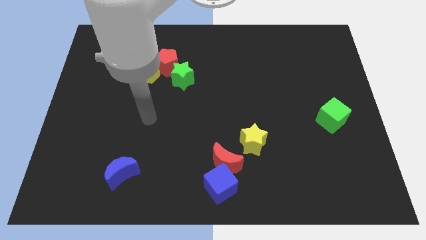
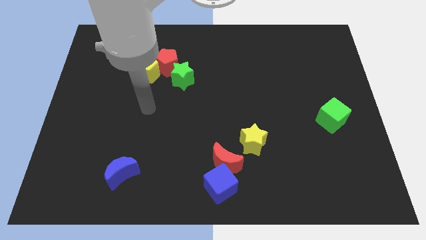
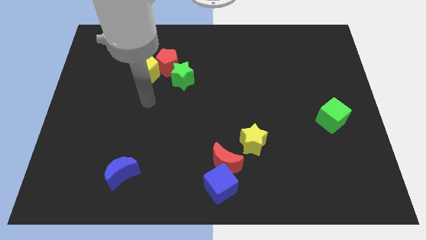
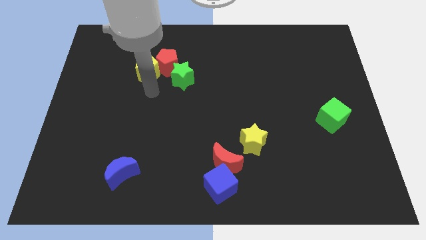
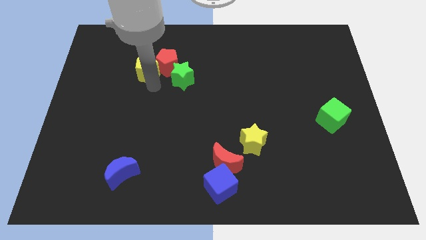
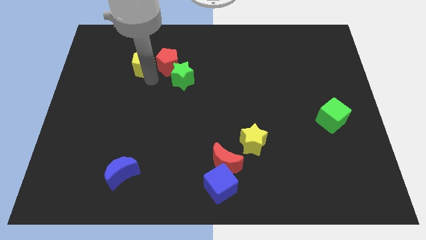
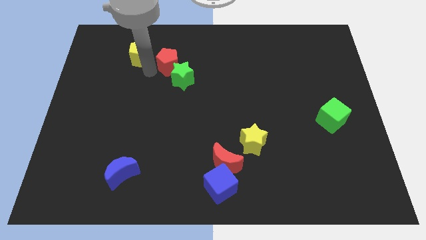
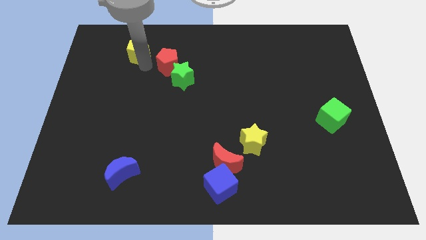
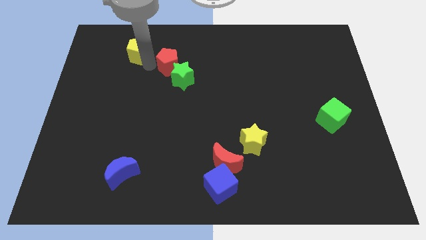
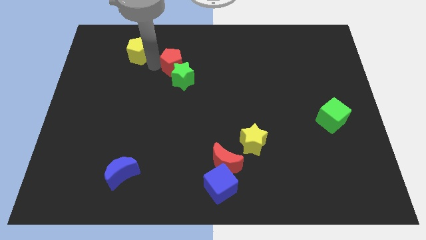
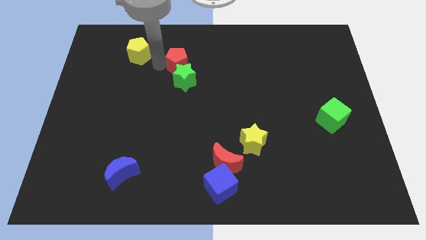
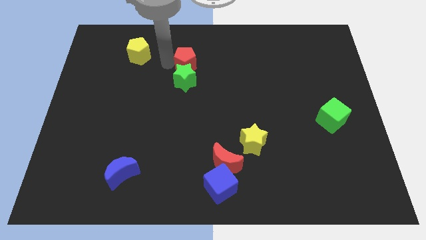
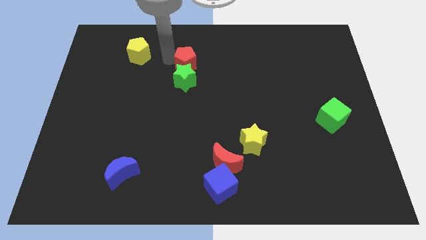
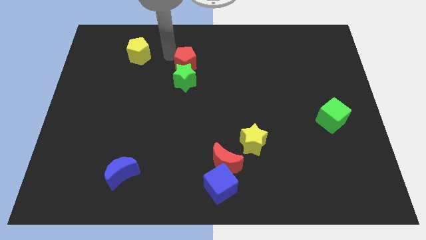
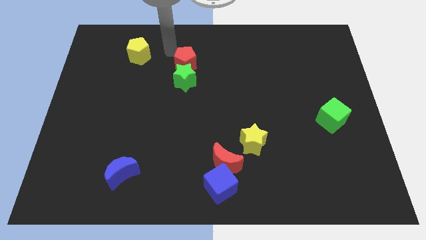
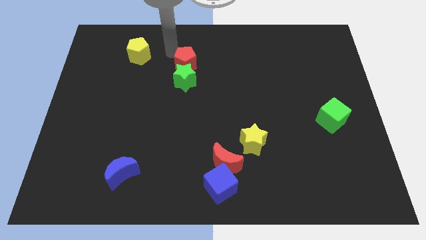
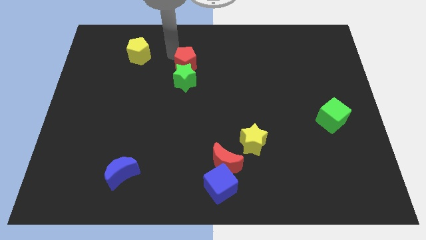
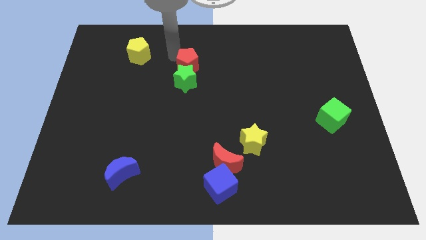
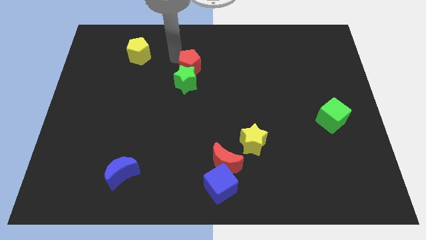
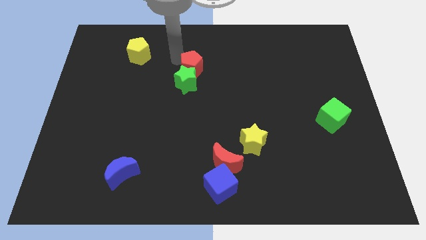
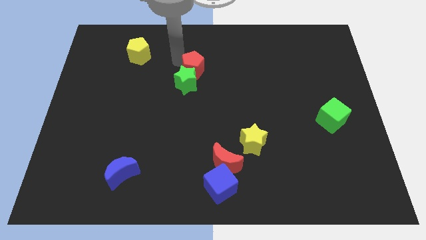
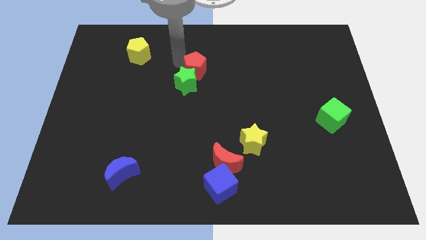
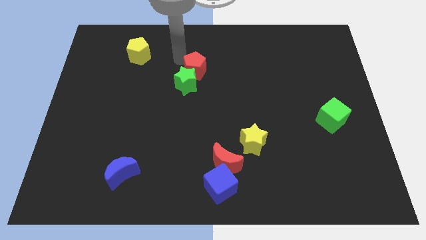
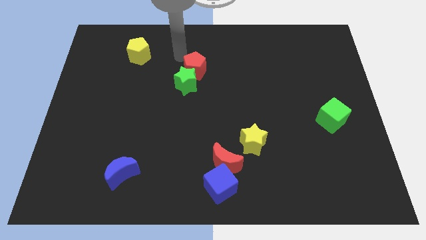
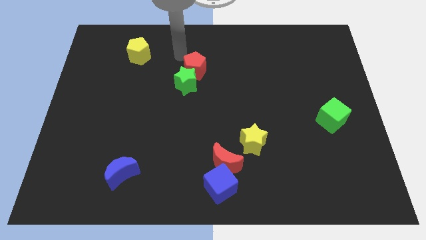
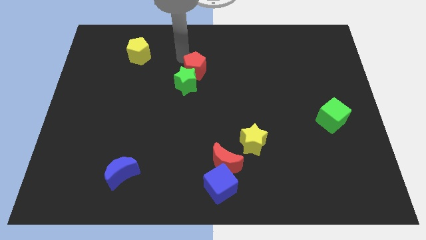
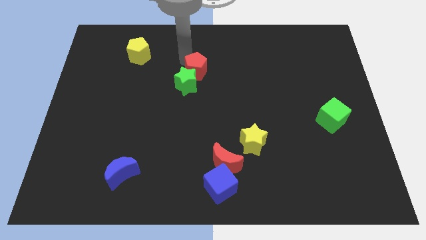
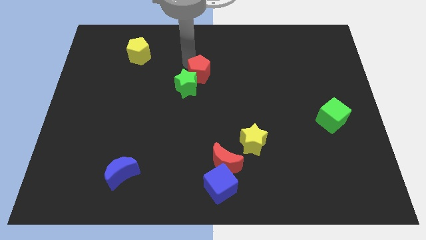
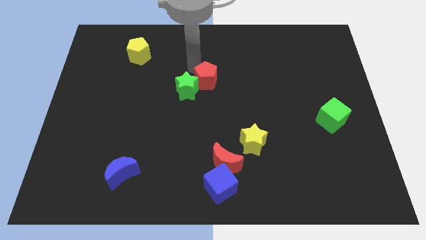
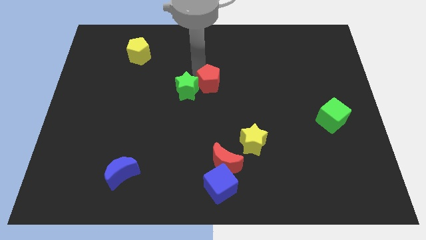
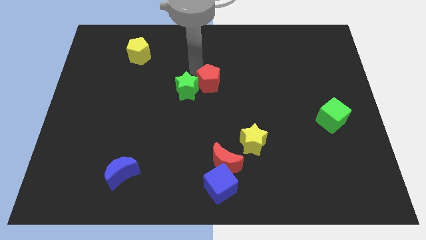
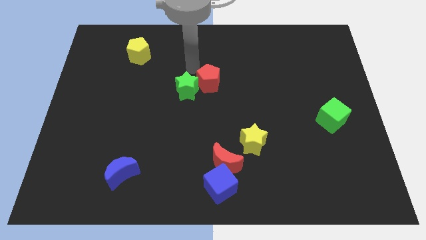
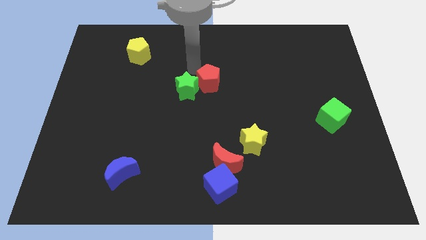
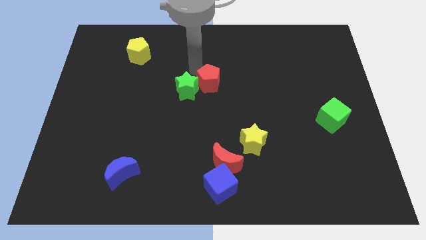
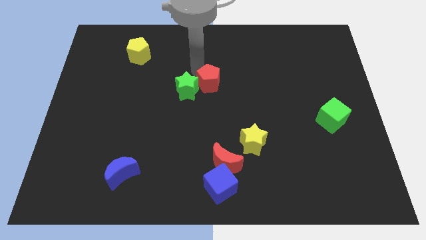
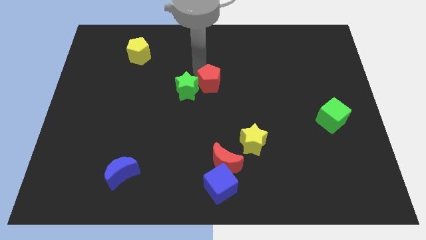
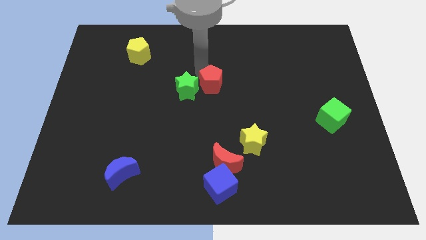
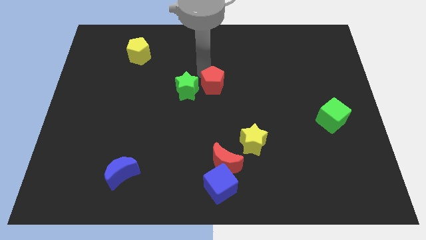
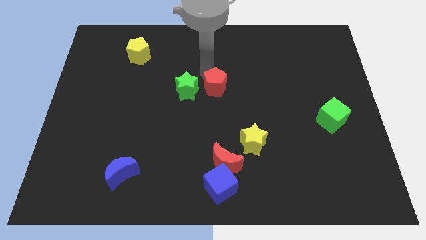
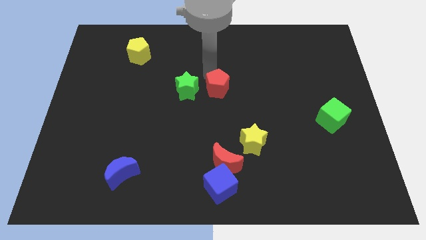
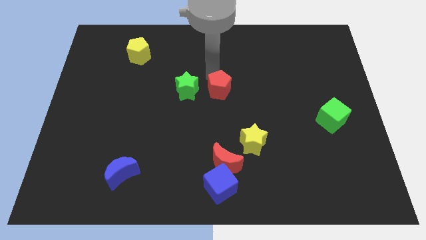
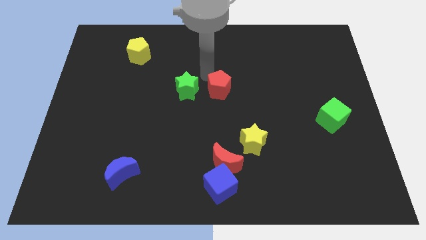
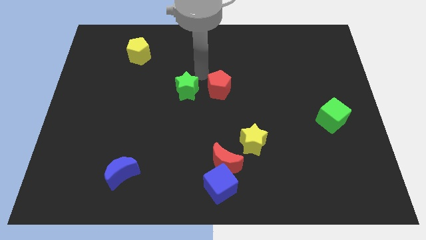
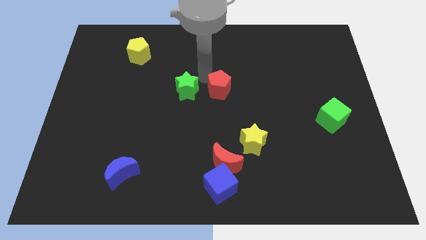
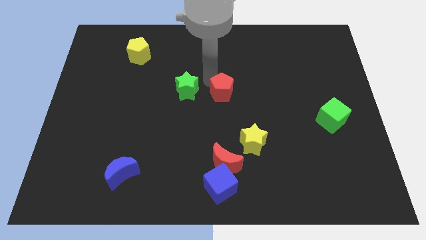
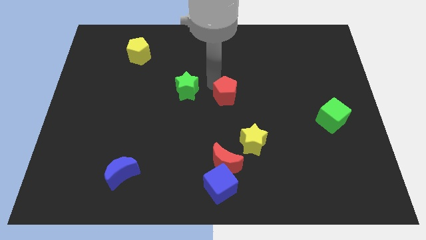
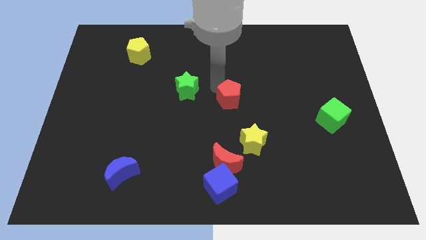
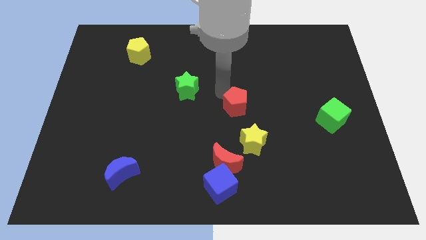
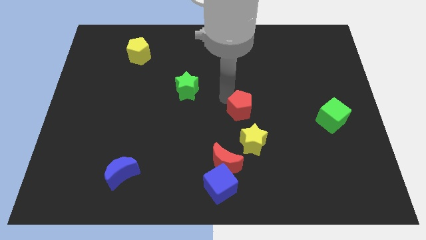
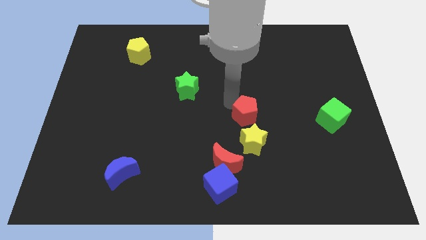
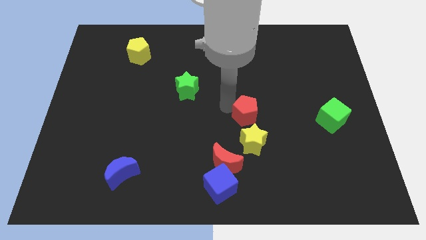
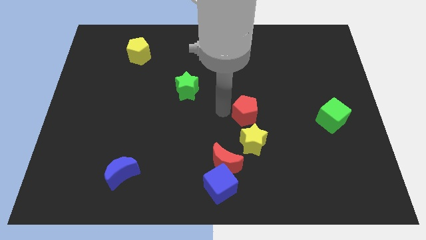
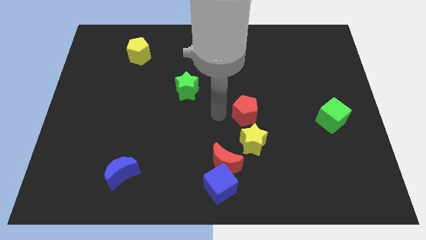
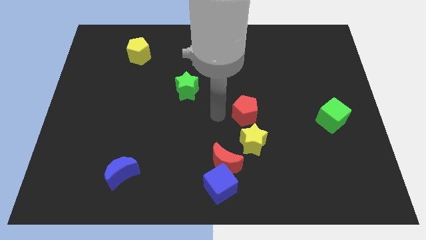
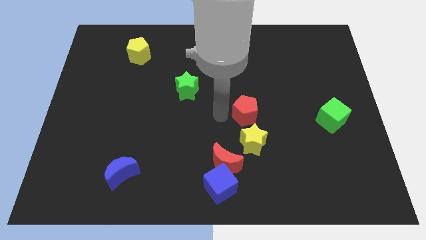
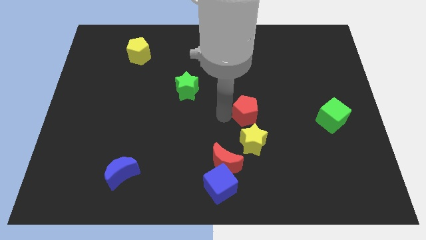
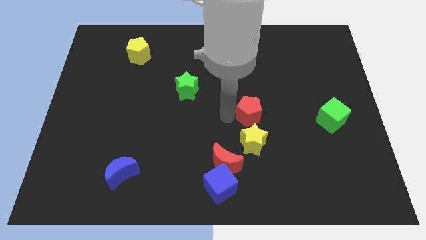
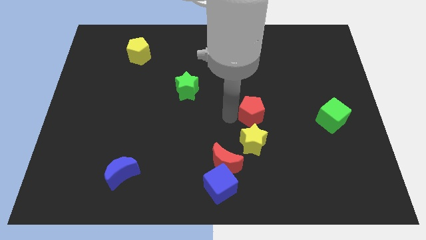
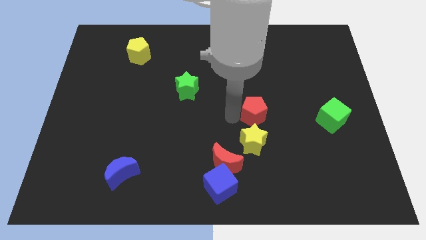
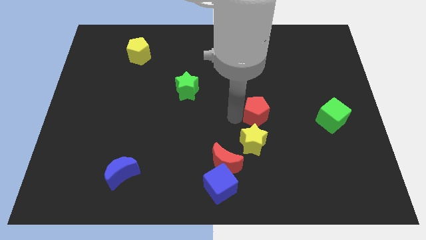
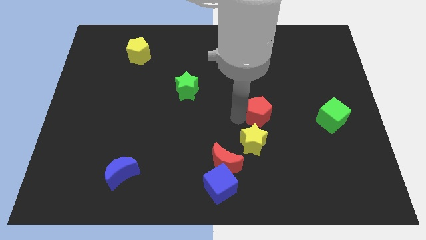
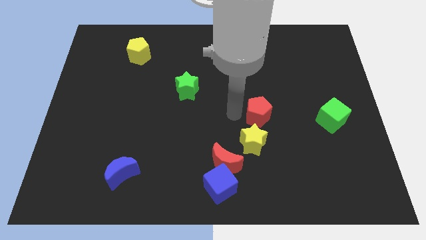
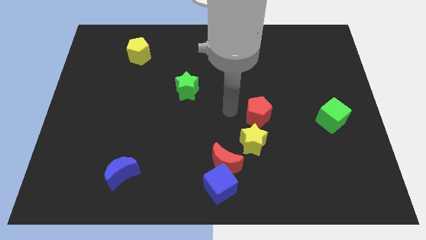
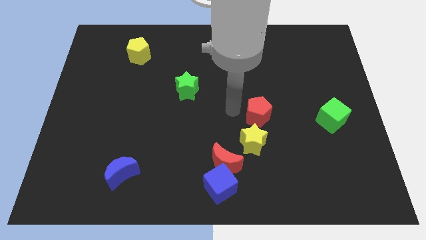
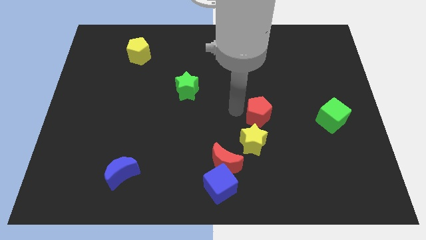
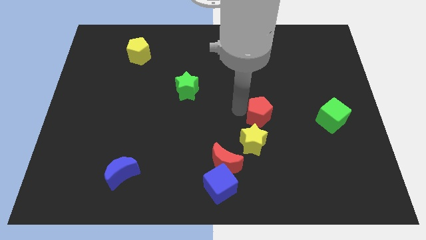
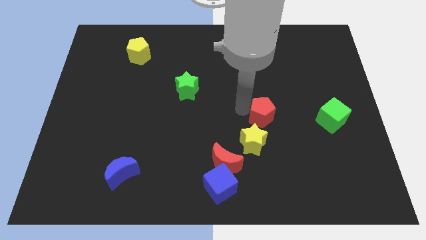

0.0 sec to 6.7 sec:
slide the red pentagon just left of the green cube

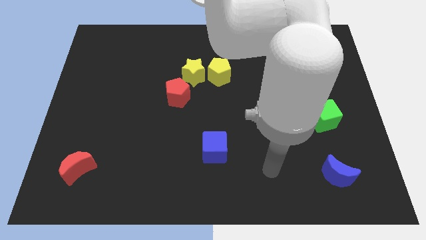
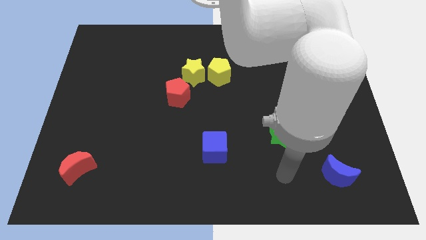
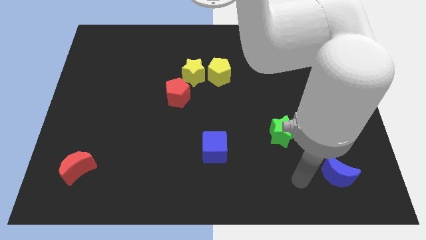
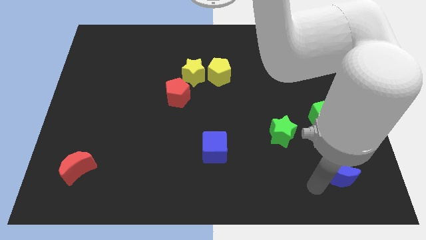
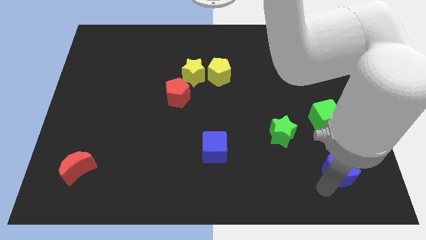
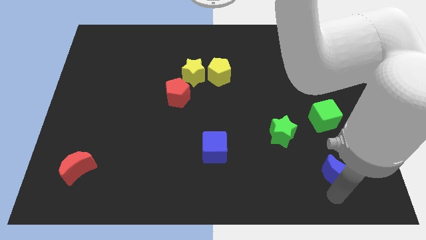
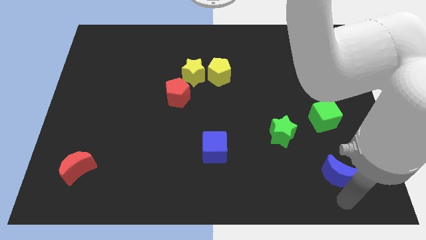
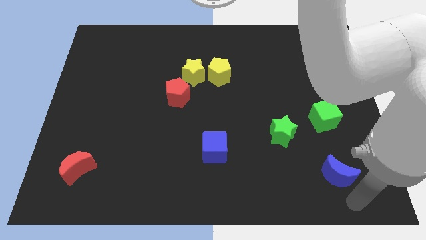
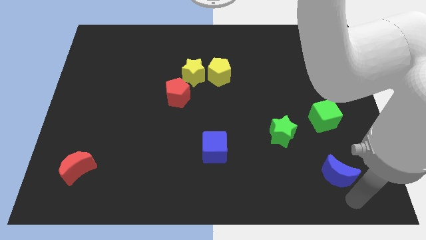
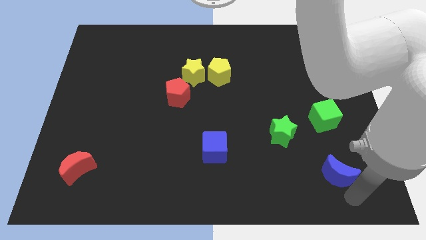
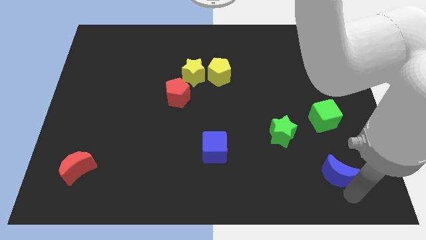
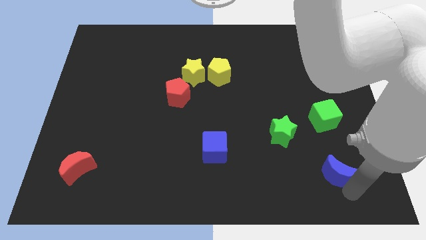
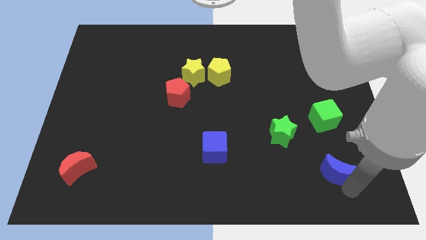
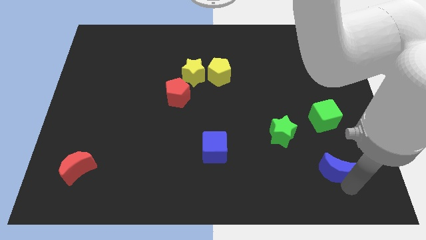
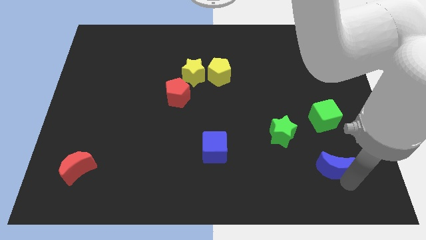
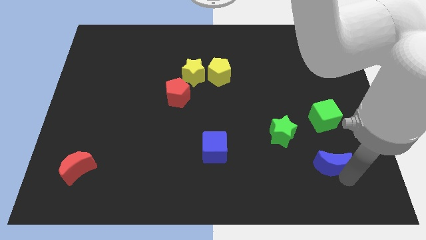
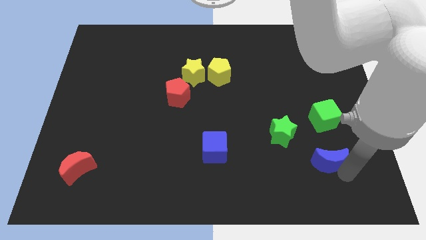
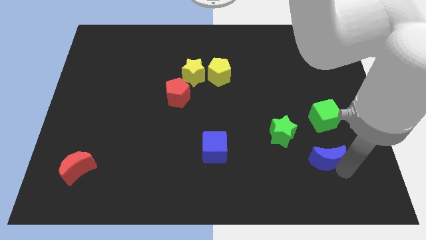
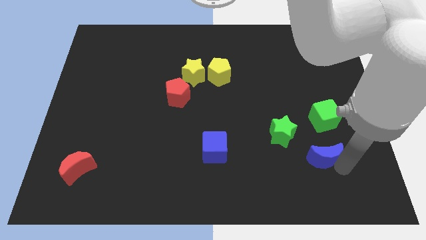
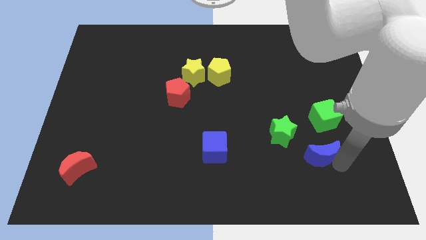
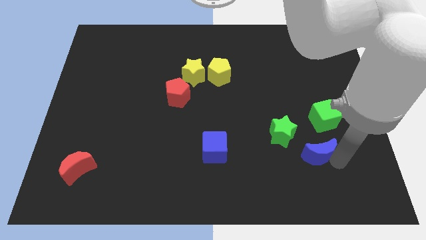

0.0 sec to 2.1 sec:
move the blue moon diagonally down and to the left of the green cube
